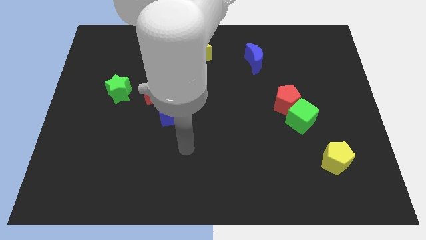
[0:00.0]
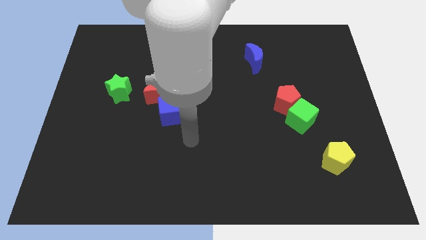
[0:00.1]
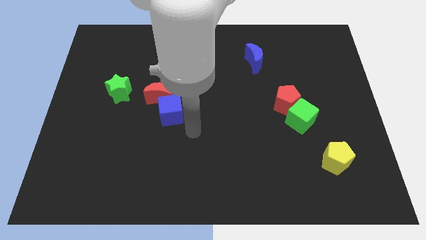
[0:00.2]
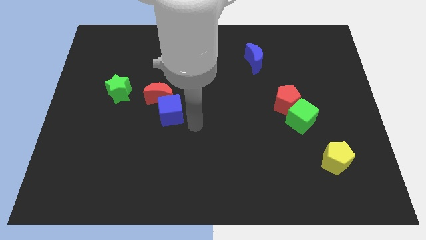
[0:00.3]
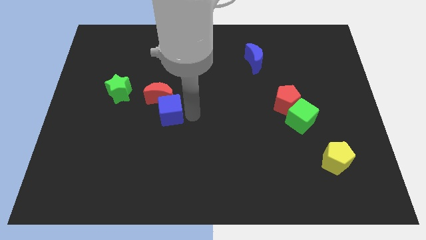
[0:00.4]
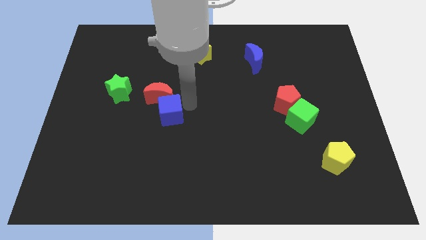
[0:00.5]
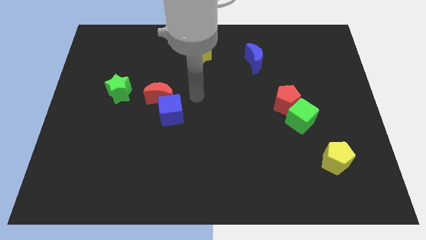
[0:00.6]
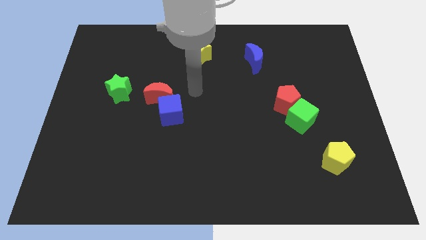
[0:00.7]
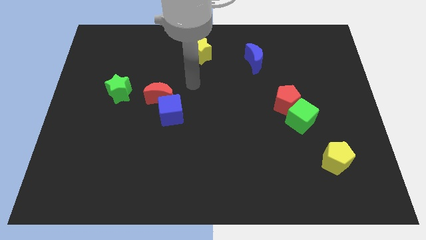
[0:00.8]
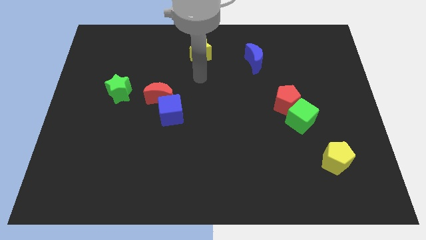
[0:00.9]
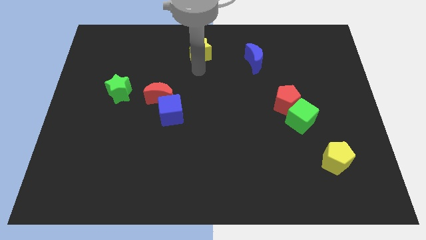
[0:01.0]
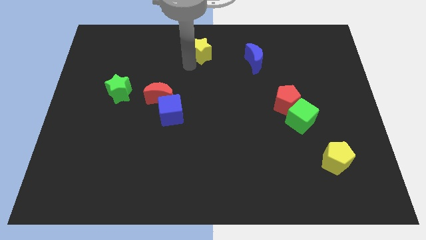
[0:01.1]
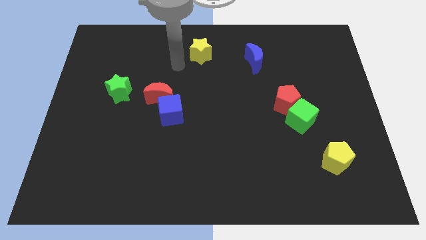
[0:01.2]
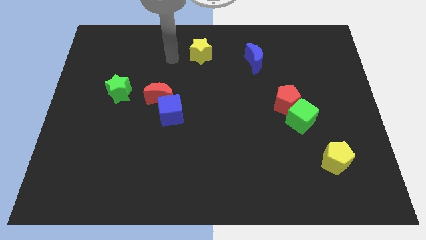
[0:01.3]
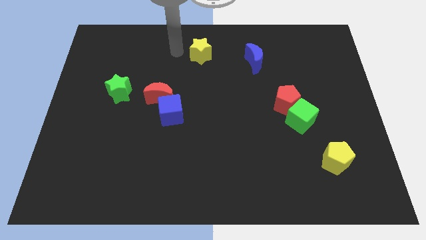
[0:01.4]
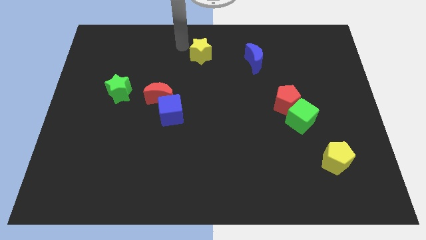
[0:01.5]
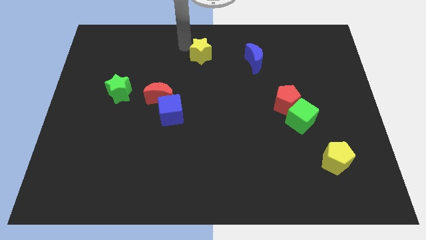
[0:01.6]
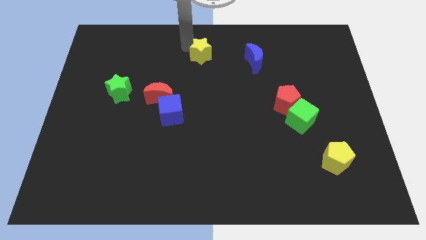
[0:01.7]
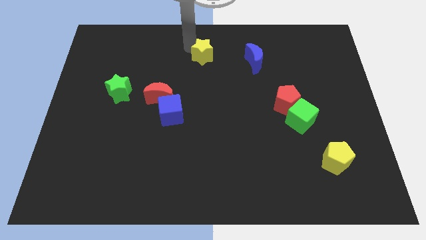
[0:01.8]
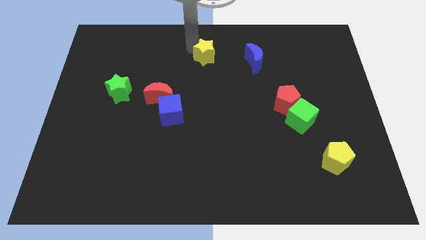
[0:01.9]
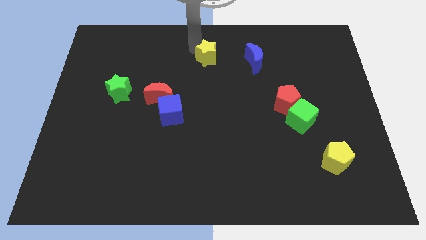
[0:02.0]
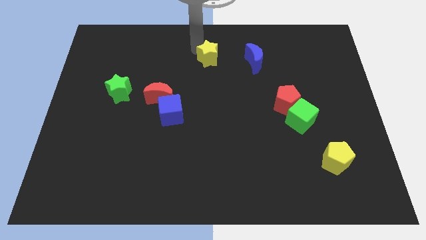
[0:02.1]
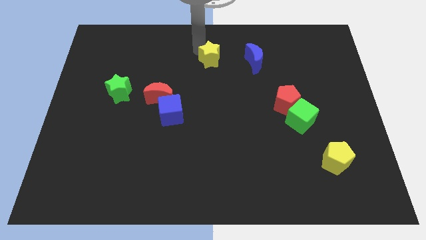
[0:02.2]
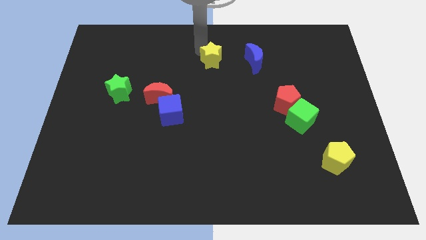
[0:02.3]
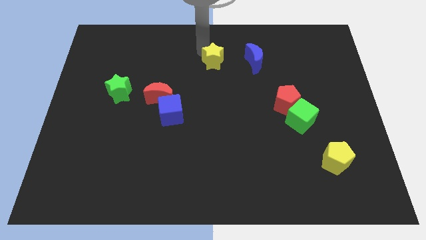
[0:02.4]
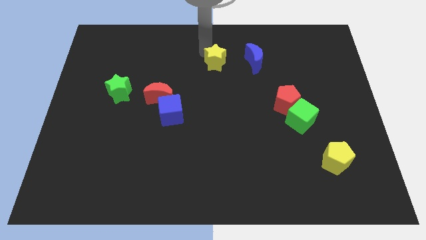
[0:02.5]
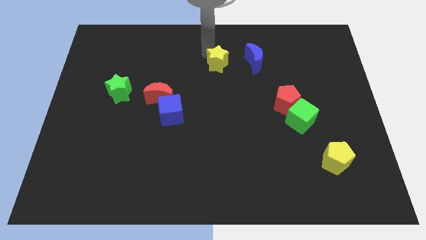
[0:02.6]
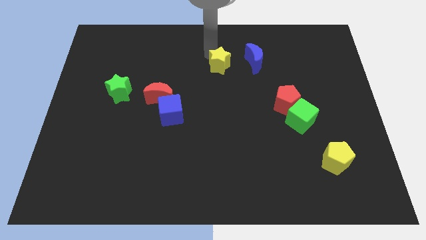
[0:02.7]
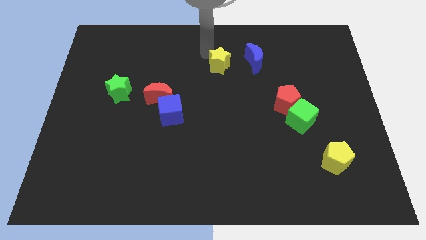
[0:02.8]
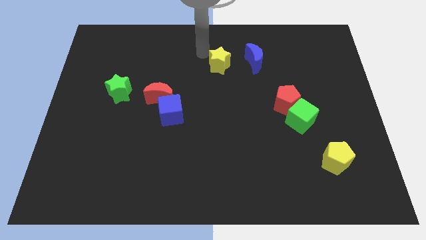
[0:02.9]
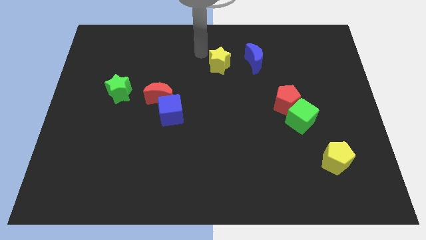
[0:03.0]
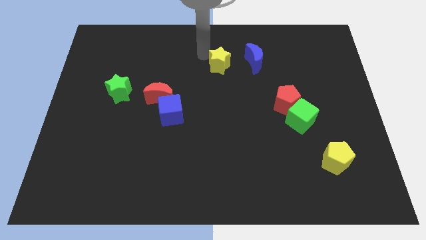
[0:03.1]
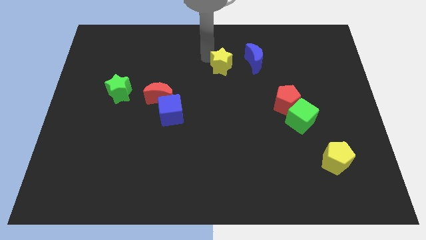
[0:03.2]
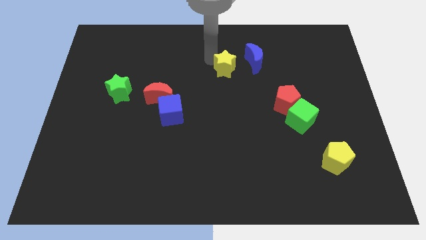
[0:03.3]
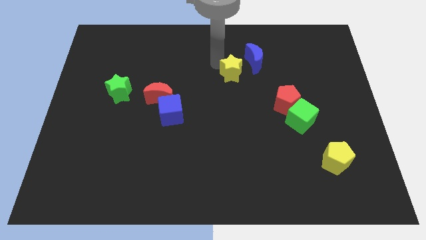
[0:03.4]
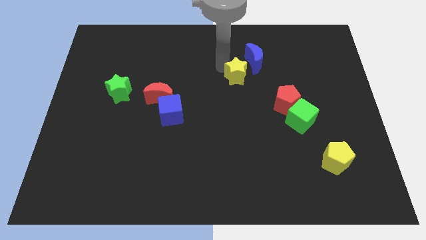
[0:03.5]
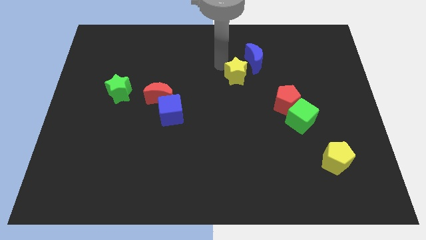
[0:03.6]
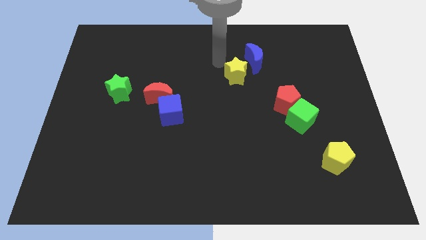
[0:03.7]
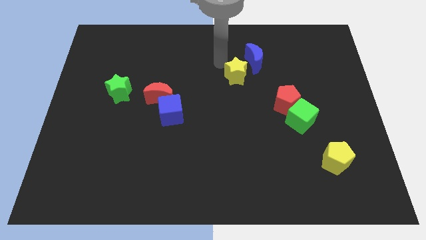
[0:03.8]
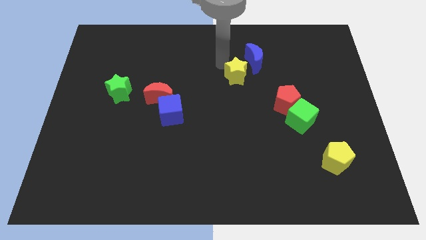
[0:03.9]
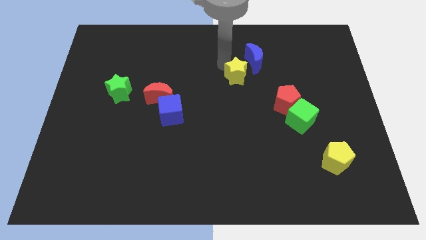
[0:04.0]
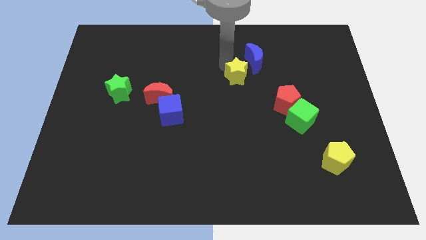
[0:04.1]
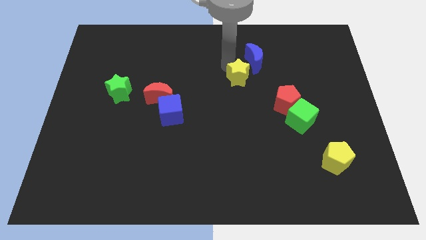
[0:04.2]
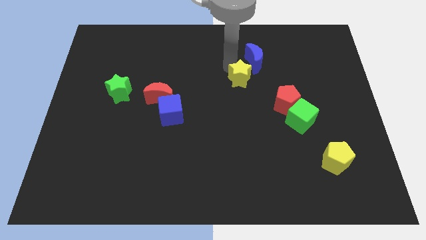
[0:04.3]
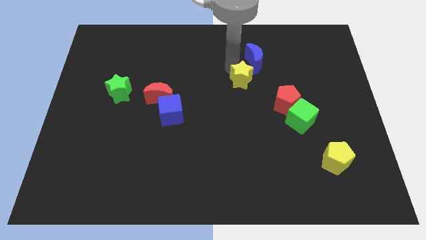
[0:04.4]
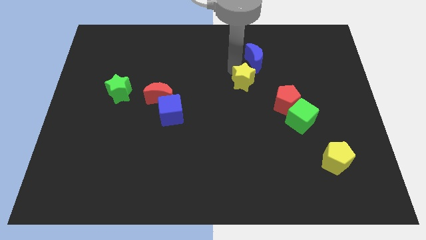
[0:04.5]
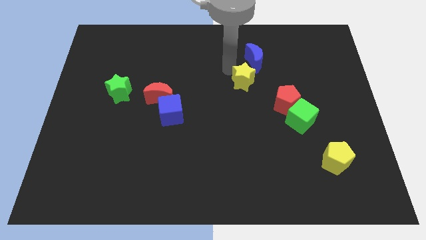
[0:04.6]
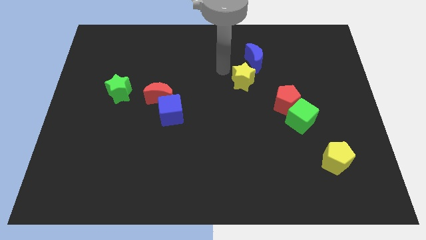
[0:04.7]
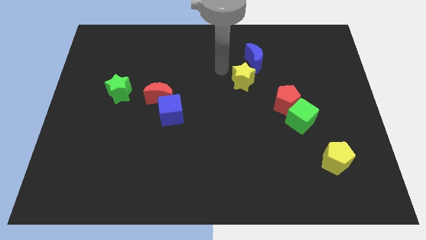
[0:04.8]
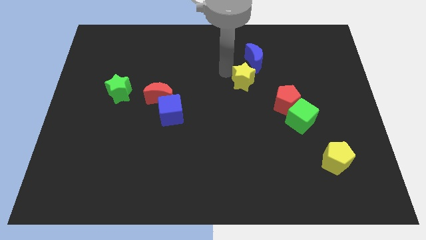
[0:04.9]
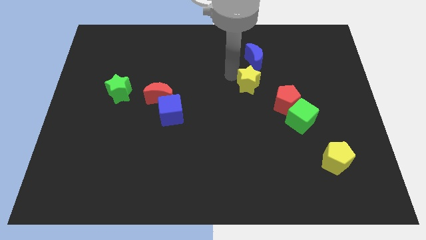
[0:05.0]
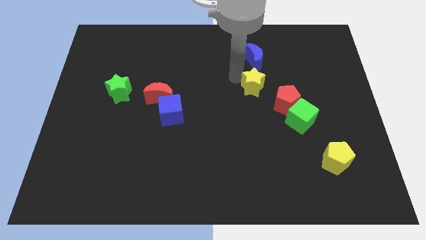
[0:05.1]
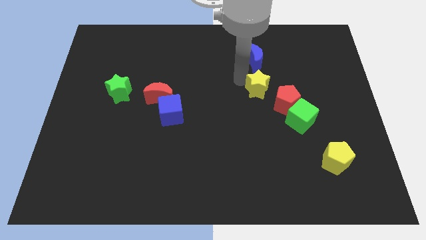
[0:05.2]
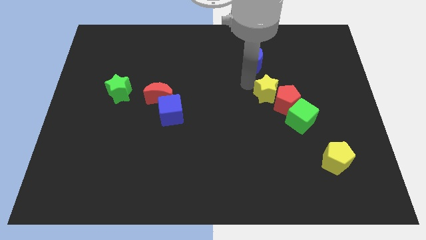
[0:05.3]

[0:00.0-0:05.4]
put the yellow star to the red pentagon

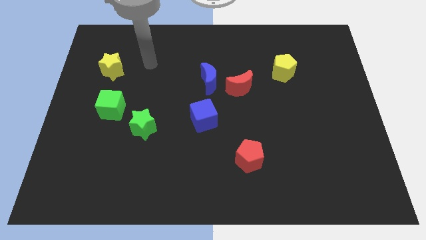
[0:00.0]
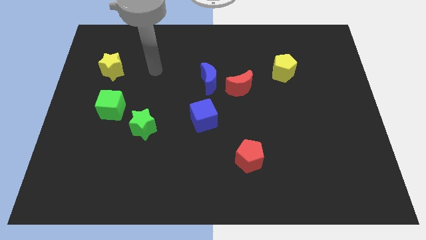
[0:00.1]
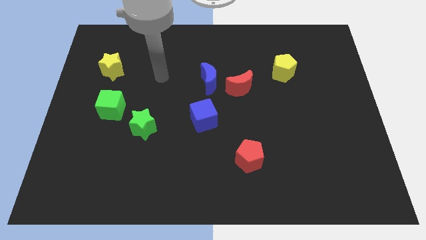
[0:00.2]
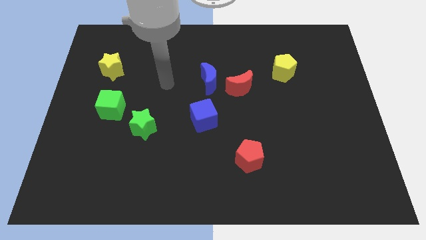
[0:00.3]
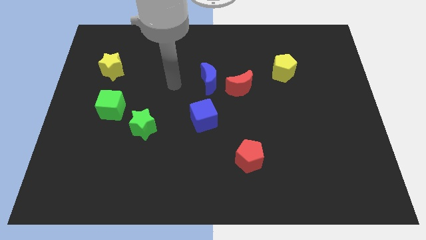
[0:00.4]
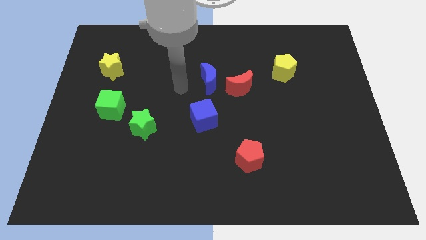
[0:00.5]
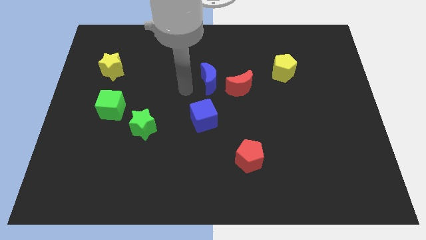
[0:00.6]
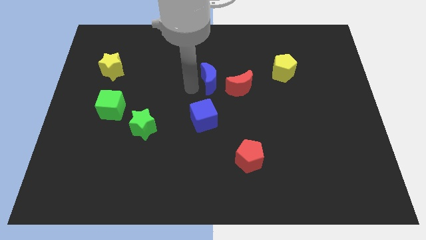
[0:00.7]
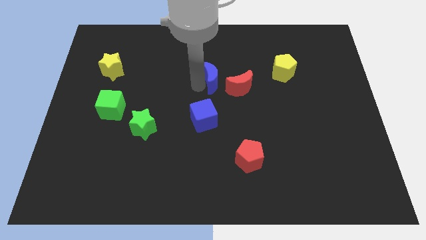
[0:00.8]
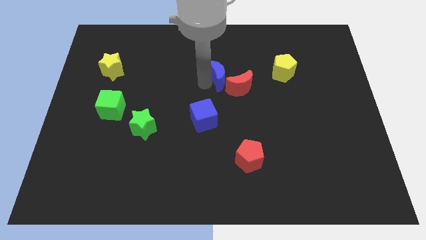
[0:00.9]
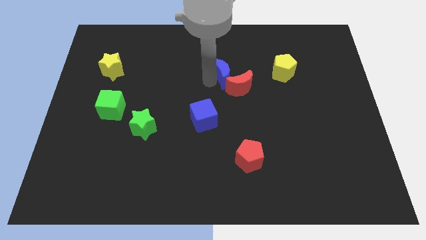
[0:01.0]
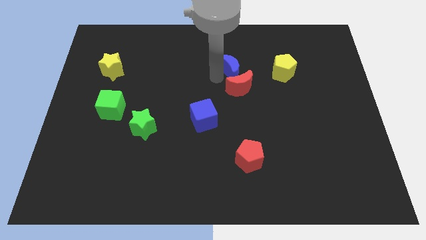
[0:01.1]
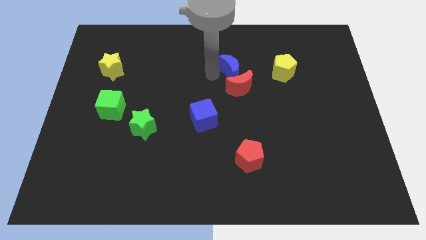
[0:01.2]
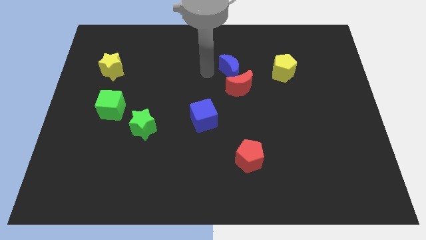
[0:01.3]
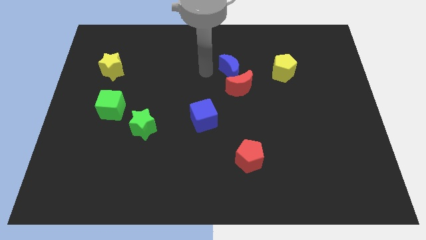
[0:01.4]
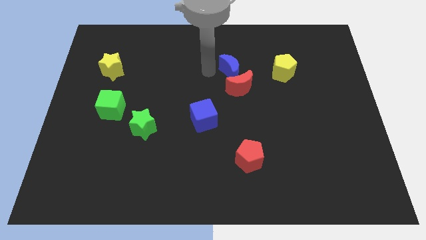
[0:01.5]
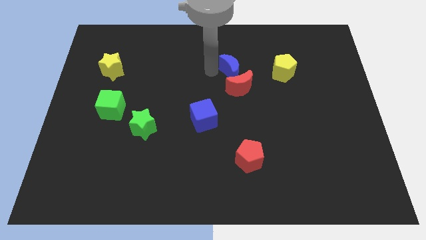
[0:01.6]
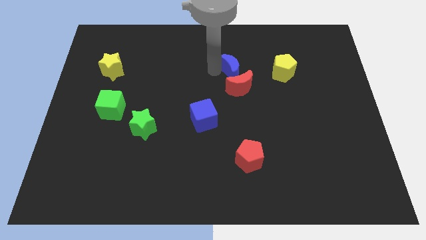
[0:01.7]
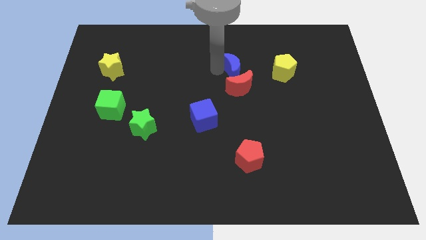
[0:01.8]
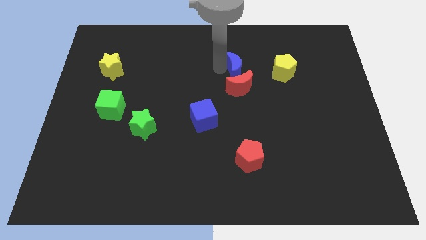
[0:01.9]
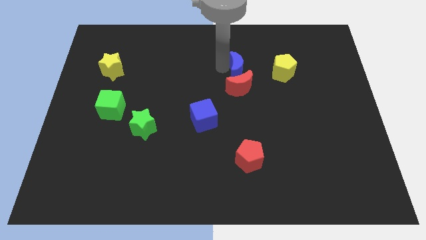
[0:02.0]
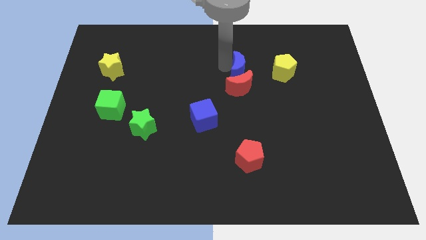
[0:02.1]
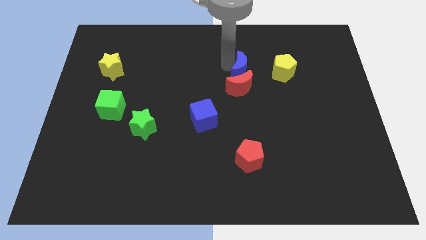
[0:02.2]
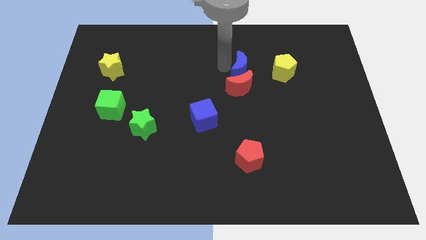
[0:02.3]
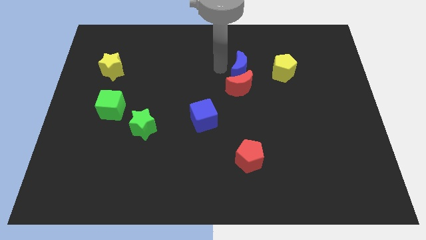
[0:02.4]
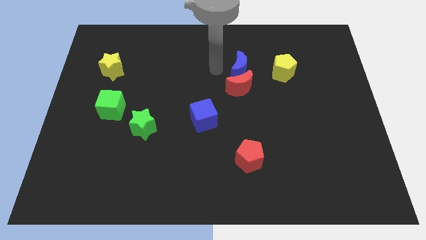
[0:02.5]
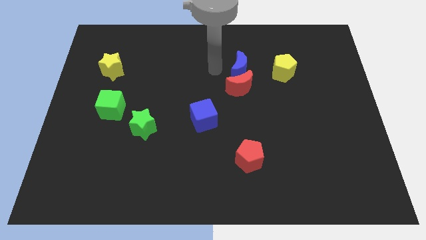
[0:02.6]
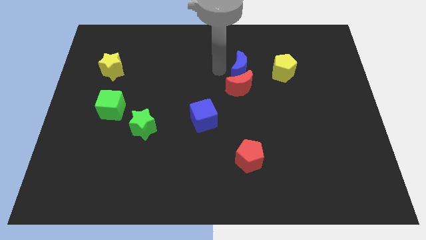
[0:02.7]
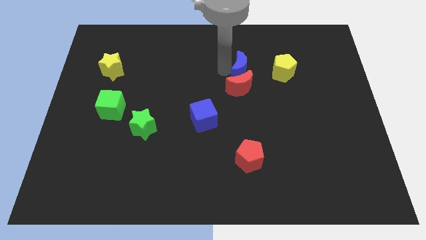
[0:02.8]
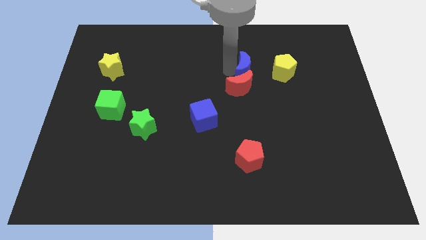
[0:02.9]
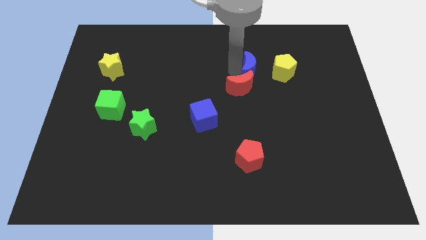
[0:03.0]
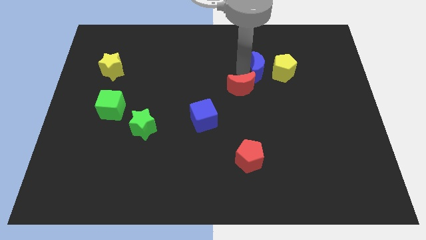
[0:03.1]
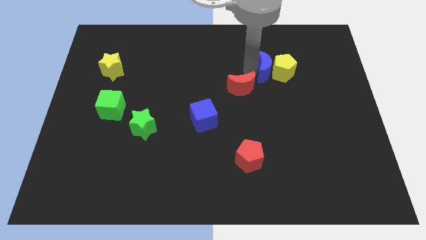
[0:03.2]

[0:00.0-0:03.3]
put the blue moon towards the yellow pentagon
